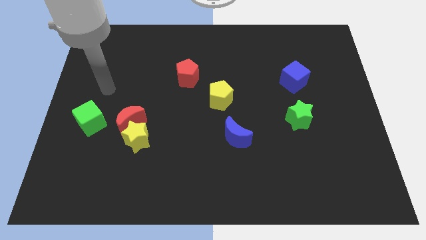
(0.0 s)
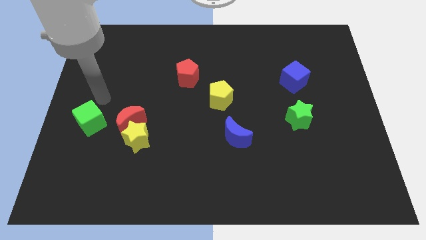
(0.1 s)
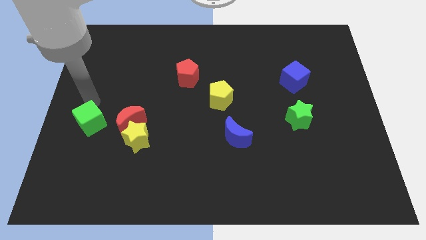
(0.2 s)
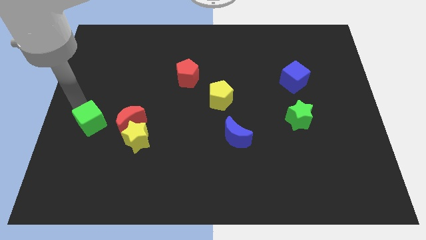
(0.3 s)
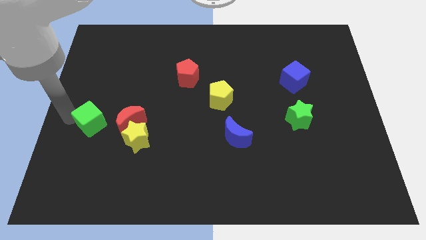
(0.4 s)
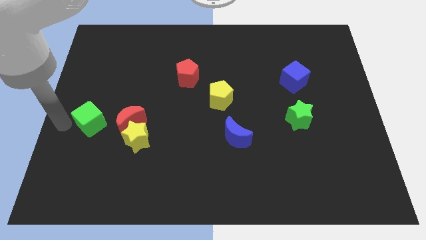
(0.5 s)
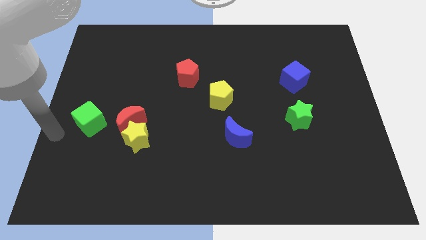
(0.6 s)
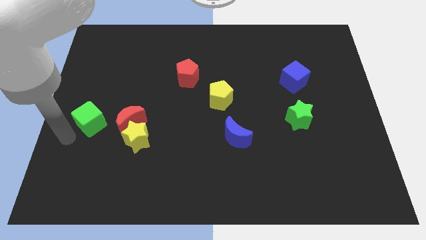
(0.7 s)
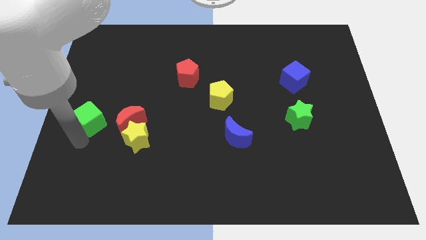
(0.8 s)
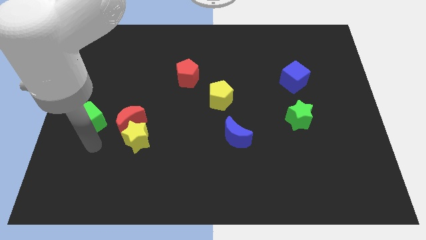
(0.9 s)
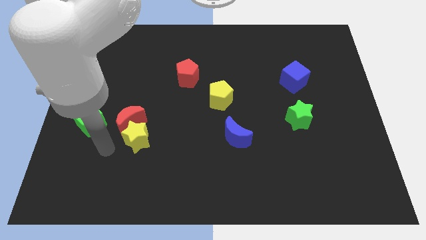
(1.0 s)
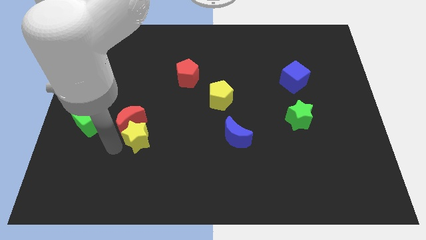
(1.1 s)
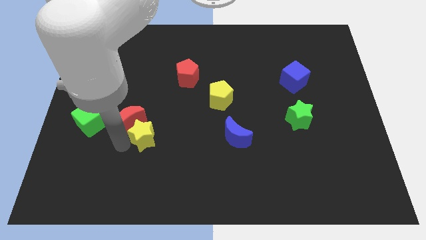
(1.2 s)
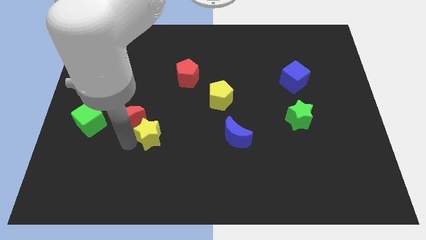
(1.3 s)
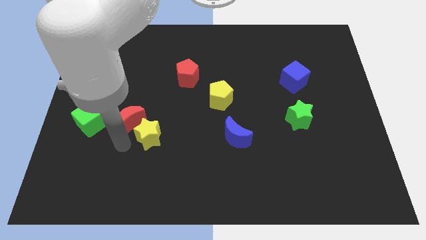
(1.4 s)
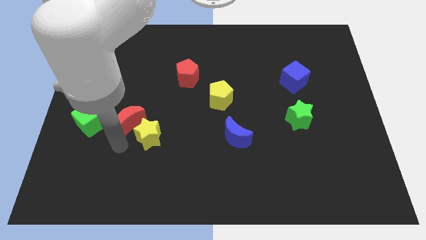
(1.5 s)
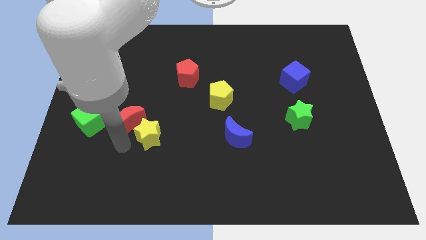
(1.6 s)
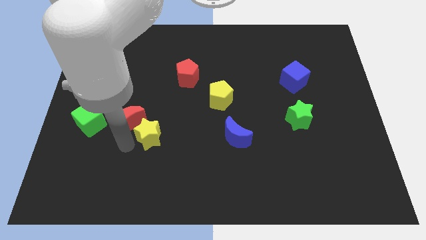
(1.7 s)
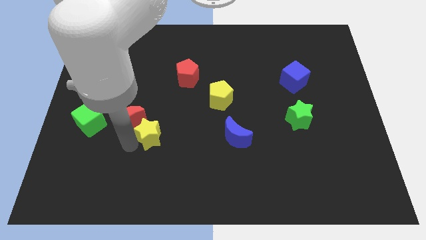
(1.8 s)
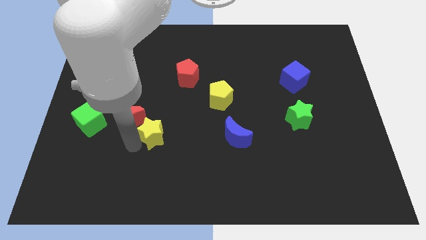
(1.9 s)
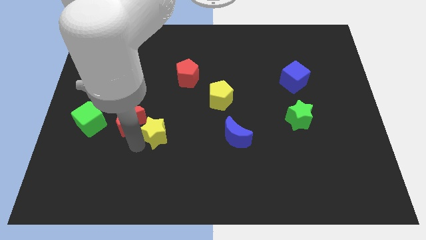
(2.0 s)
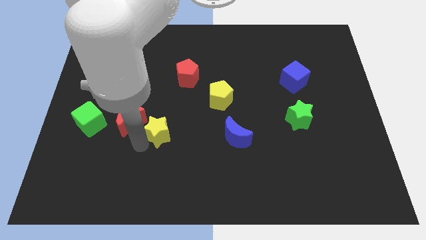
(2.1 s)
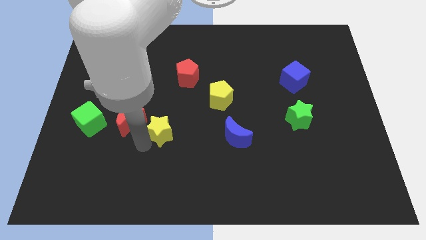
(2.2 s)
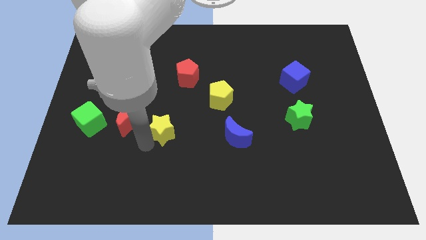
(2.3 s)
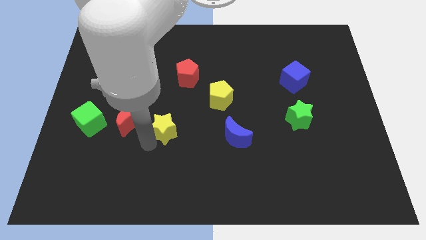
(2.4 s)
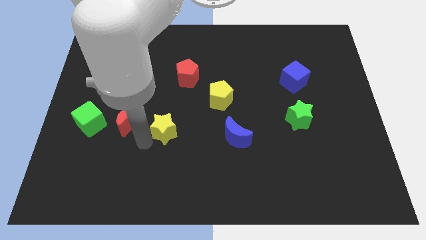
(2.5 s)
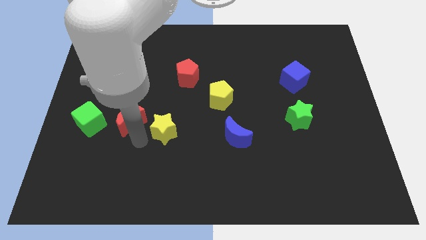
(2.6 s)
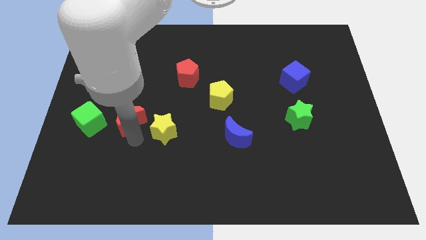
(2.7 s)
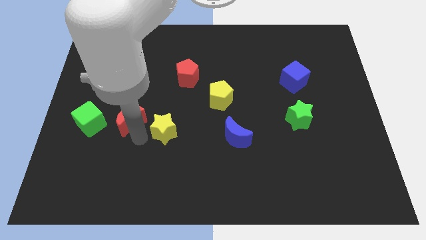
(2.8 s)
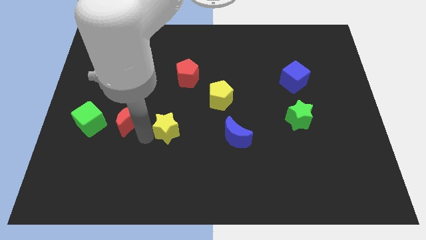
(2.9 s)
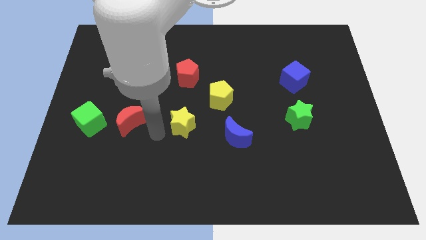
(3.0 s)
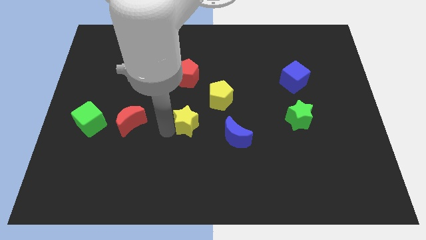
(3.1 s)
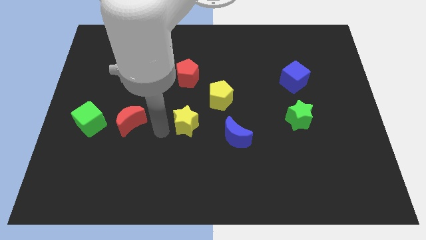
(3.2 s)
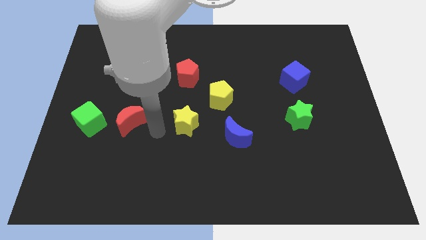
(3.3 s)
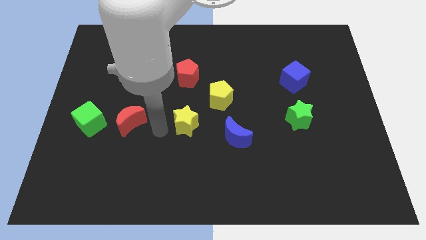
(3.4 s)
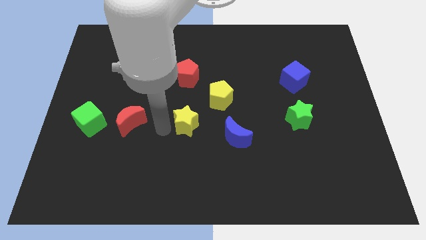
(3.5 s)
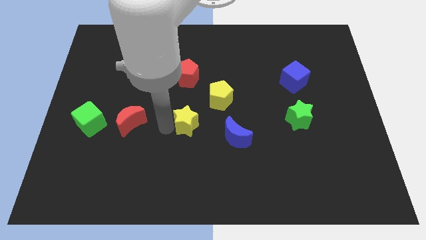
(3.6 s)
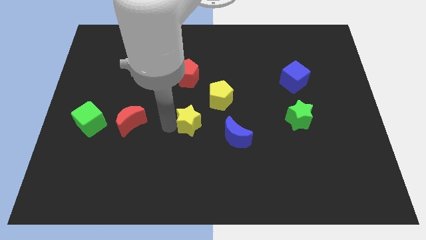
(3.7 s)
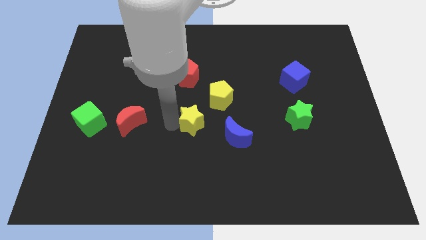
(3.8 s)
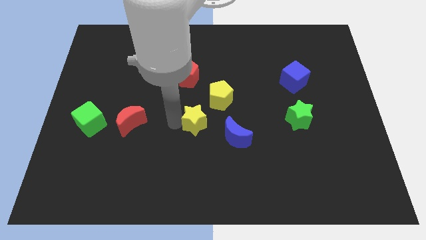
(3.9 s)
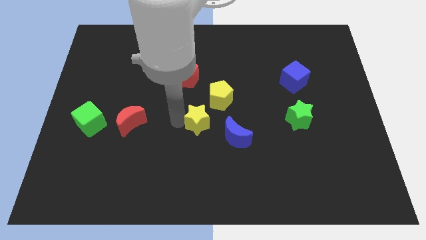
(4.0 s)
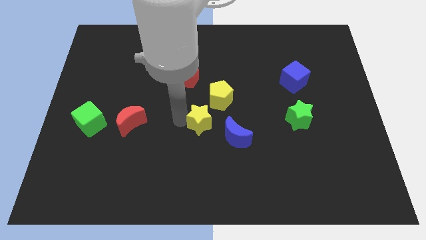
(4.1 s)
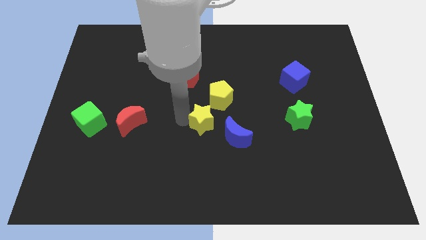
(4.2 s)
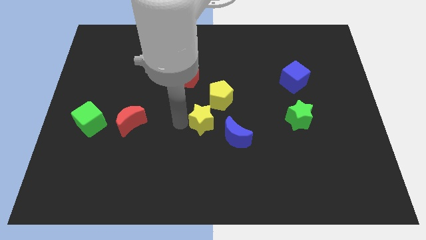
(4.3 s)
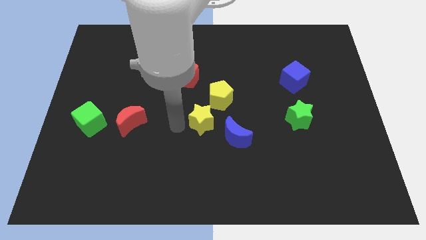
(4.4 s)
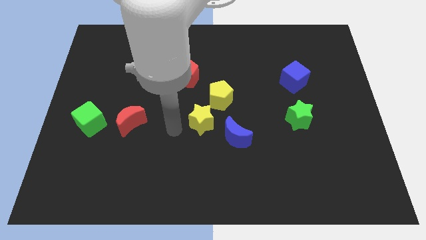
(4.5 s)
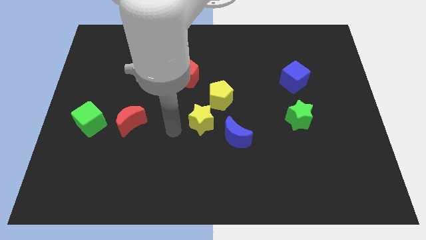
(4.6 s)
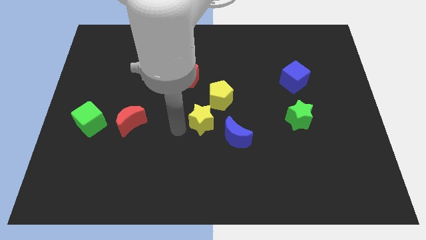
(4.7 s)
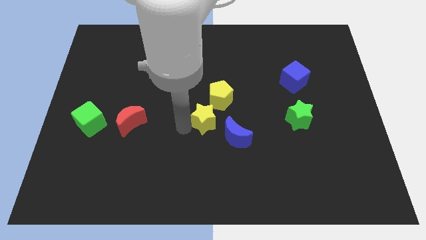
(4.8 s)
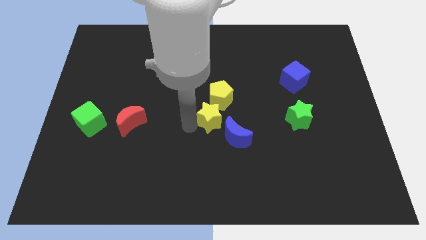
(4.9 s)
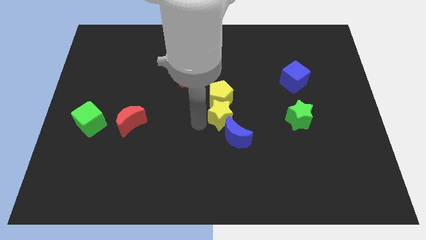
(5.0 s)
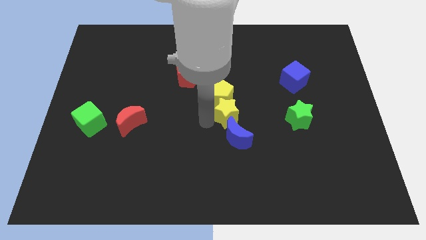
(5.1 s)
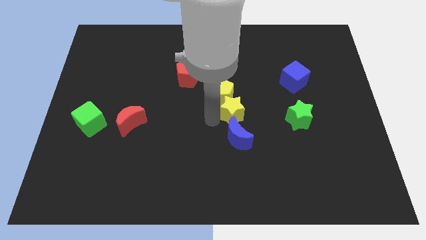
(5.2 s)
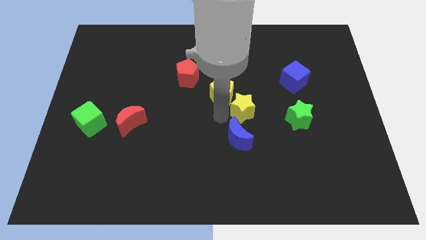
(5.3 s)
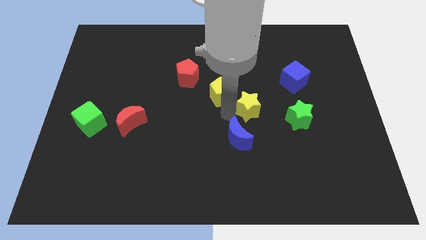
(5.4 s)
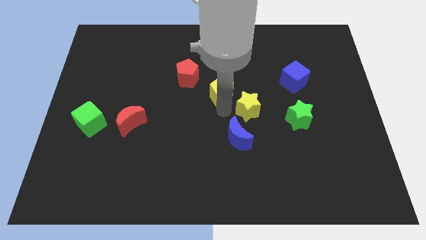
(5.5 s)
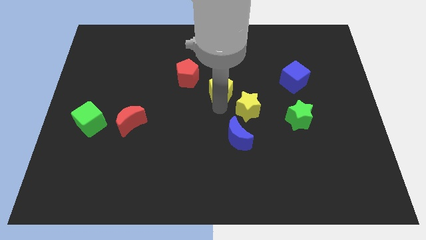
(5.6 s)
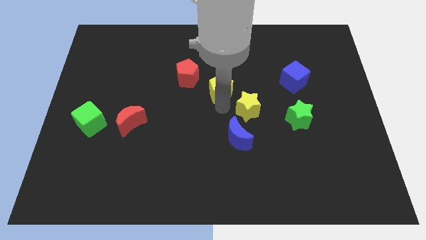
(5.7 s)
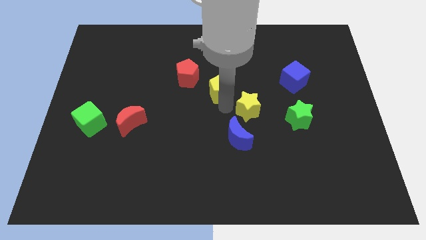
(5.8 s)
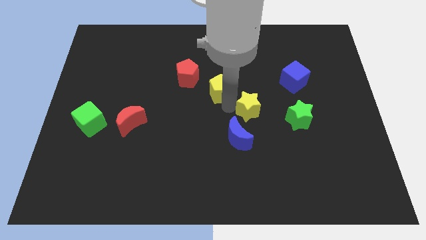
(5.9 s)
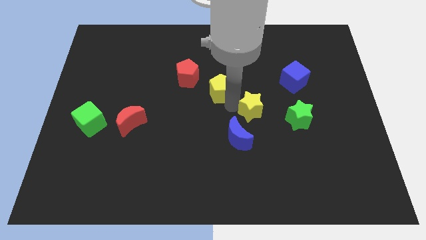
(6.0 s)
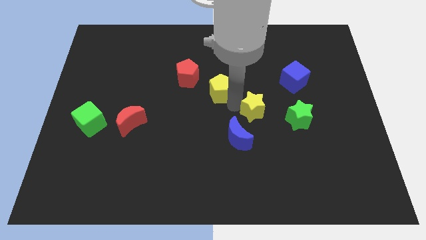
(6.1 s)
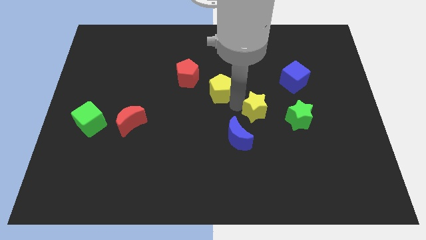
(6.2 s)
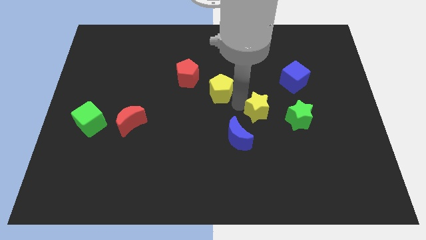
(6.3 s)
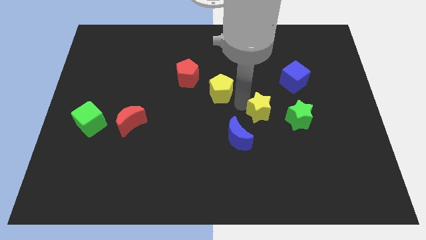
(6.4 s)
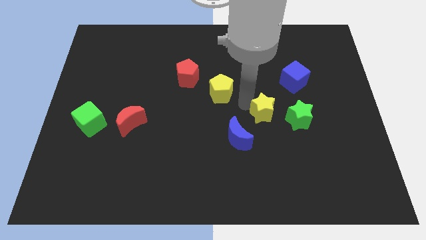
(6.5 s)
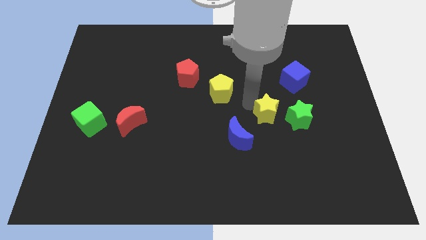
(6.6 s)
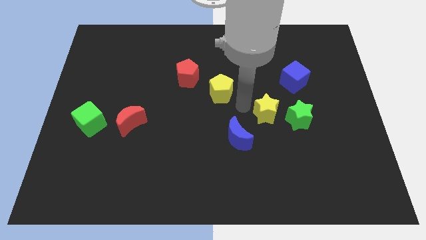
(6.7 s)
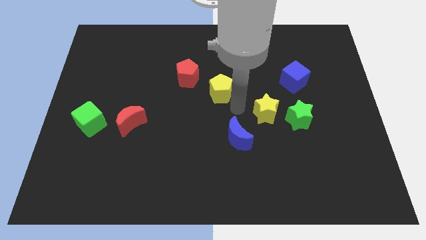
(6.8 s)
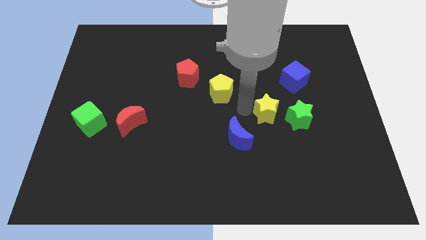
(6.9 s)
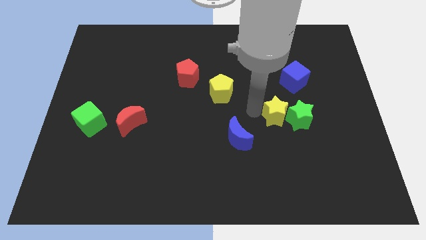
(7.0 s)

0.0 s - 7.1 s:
move the yellow star close to the green star

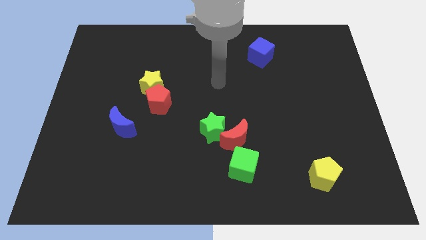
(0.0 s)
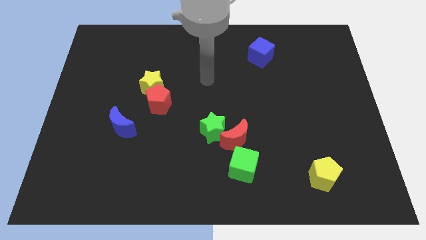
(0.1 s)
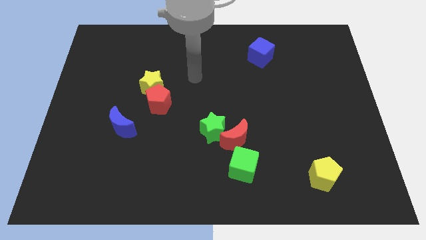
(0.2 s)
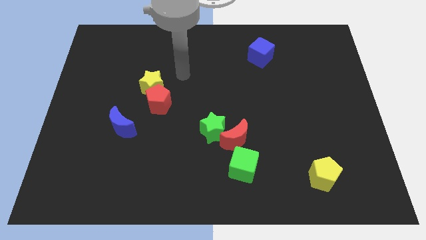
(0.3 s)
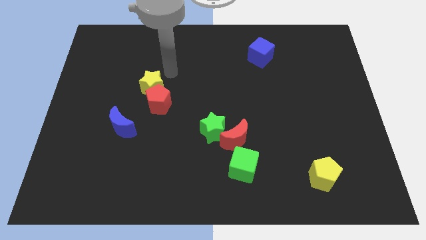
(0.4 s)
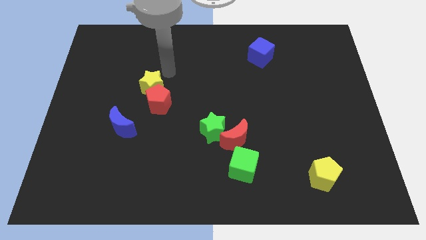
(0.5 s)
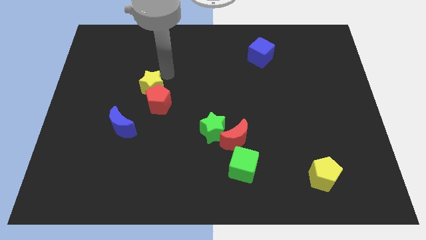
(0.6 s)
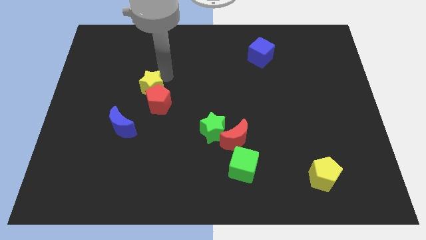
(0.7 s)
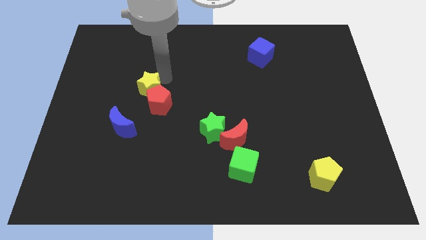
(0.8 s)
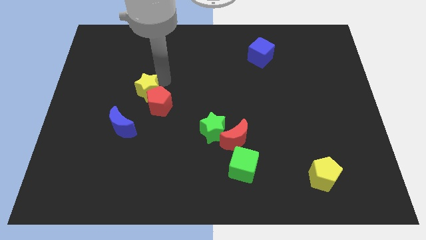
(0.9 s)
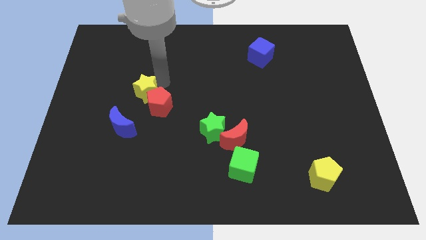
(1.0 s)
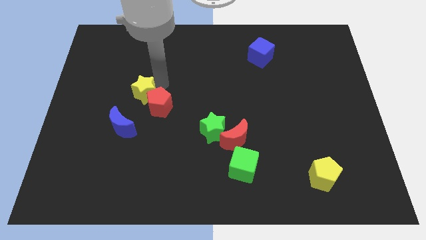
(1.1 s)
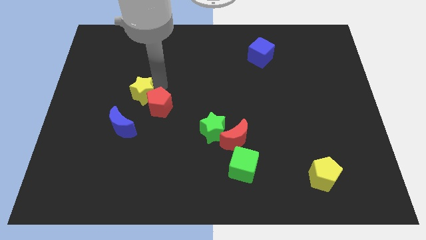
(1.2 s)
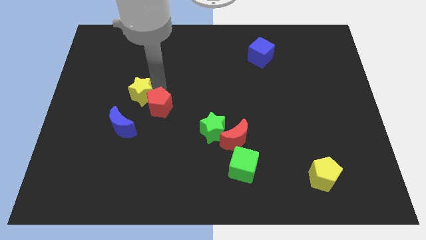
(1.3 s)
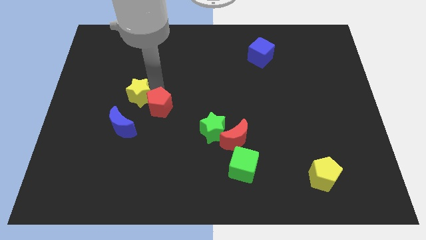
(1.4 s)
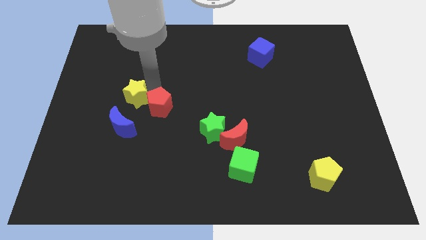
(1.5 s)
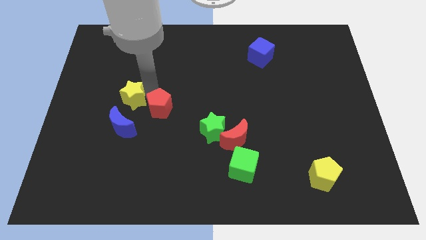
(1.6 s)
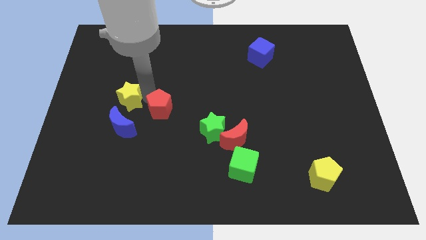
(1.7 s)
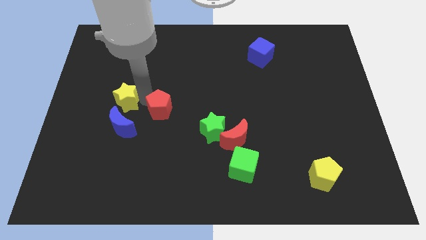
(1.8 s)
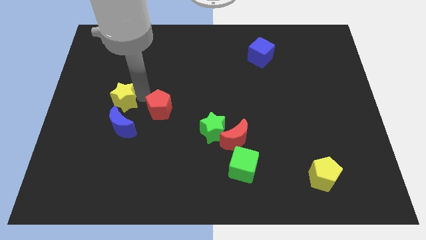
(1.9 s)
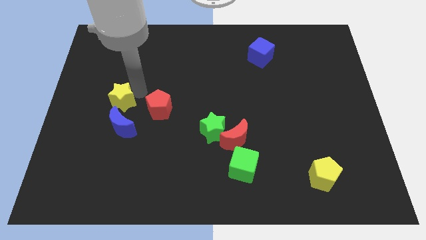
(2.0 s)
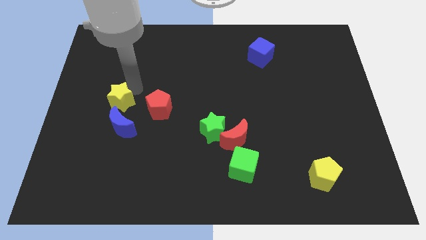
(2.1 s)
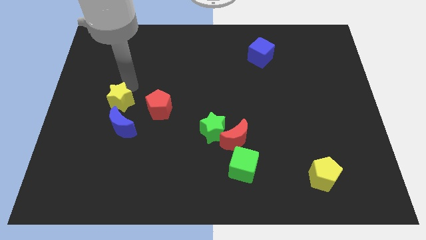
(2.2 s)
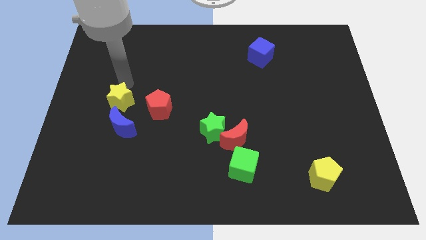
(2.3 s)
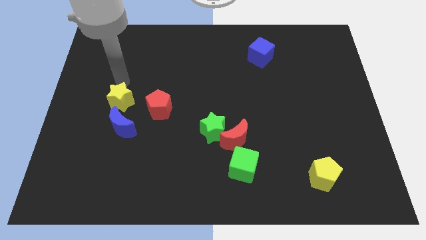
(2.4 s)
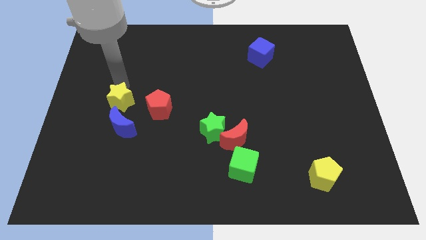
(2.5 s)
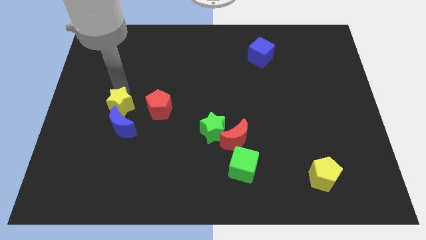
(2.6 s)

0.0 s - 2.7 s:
put the yellow star to the blue moon
